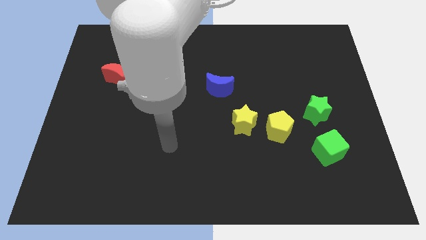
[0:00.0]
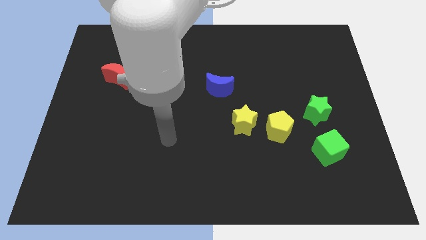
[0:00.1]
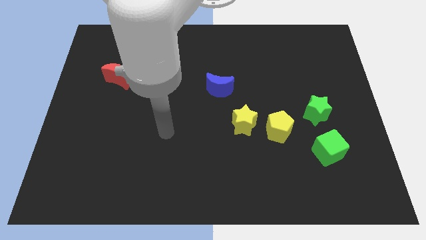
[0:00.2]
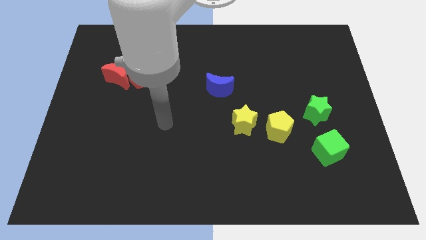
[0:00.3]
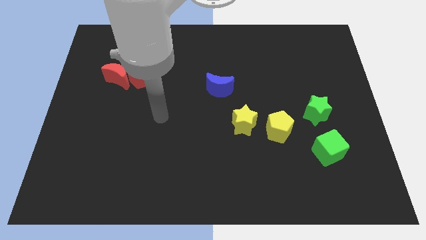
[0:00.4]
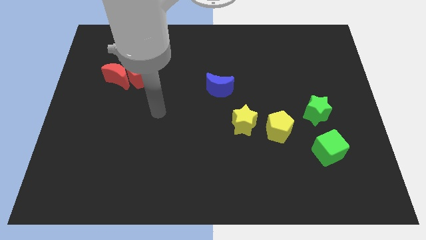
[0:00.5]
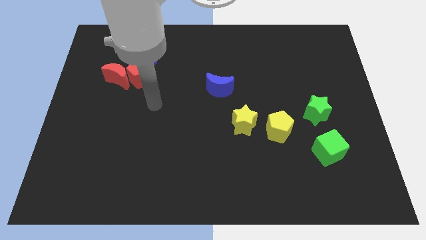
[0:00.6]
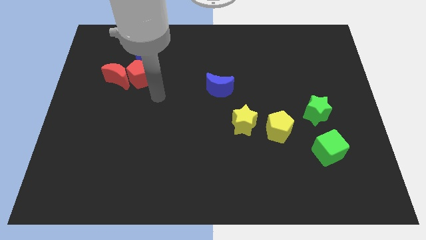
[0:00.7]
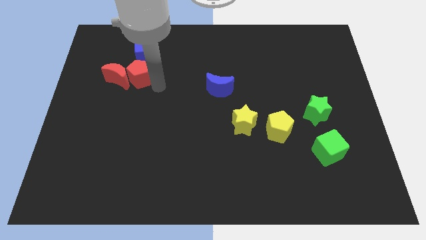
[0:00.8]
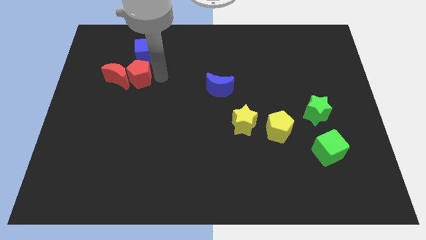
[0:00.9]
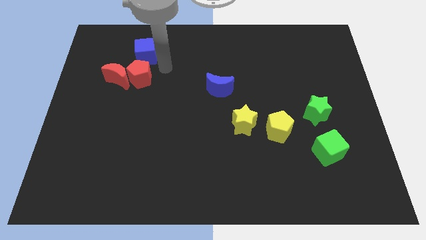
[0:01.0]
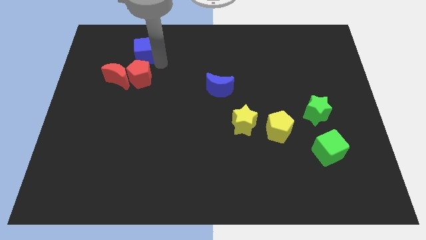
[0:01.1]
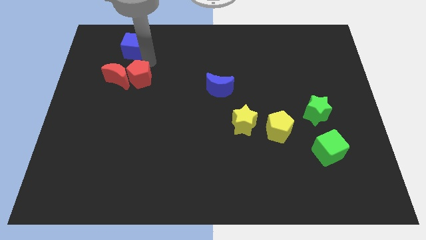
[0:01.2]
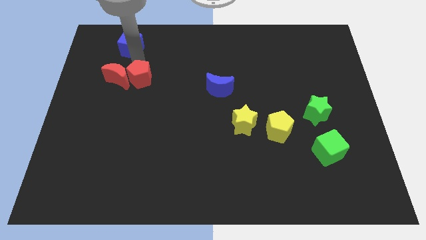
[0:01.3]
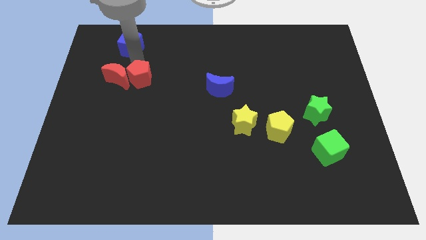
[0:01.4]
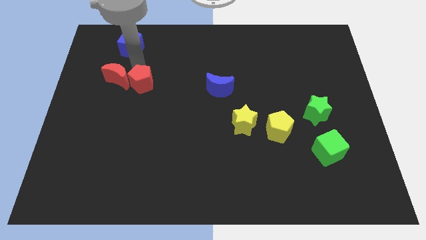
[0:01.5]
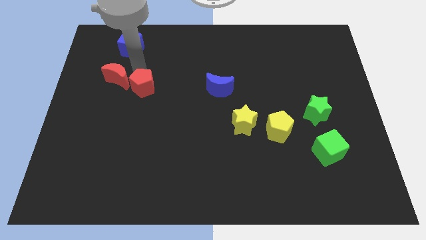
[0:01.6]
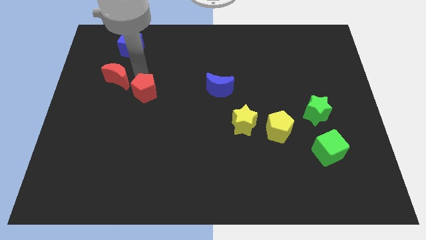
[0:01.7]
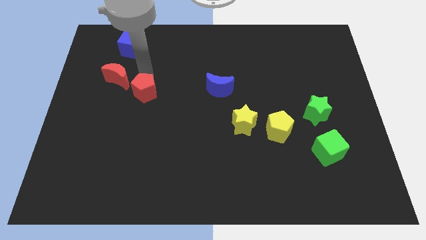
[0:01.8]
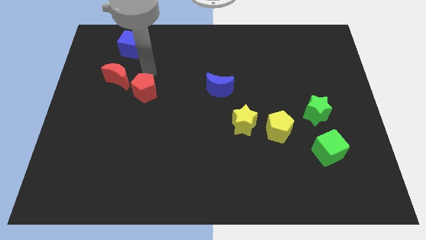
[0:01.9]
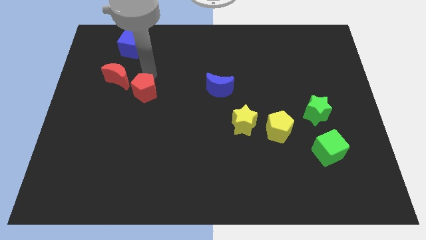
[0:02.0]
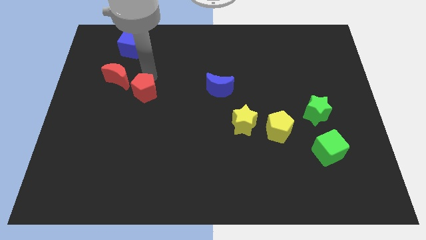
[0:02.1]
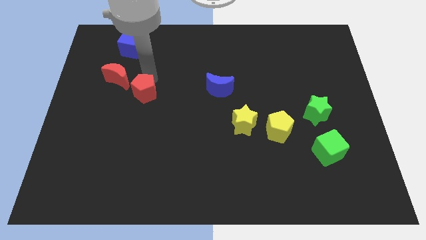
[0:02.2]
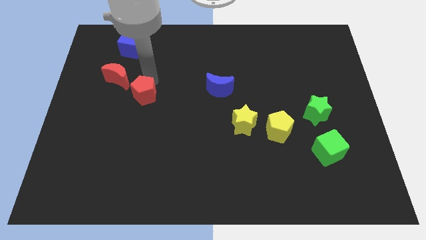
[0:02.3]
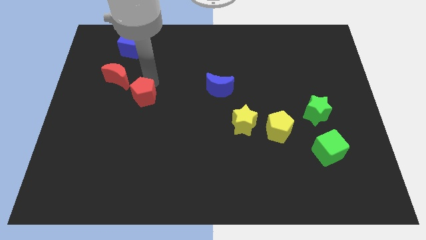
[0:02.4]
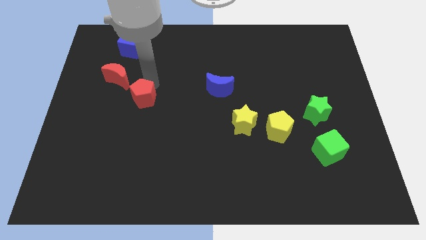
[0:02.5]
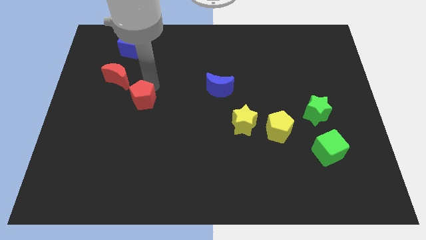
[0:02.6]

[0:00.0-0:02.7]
move the red pentagon slightly downwards

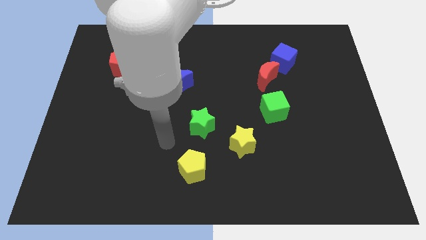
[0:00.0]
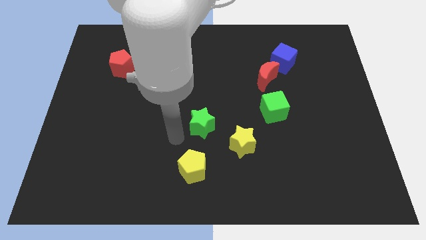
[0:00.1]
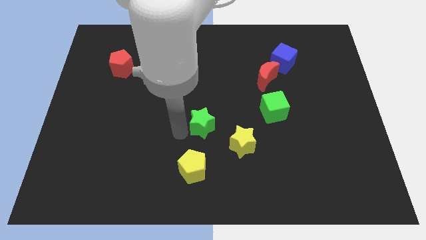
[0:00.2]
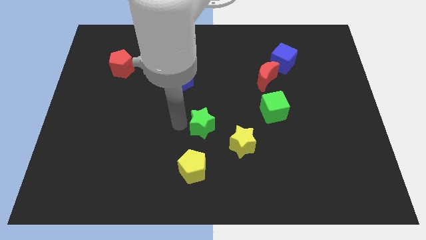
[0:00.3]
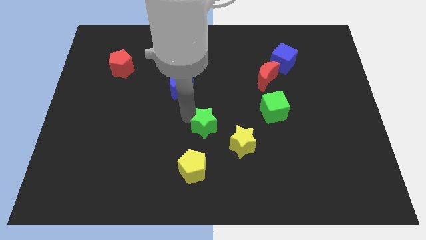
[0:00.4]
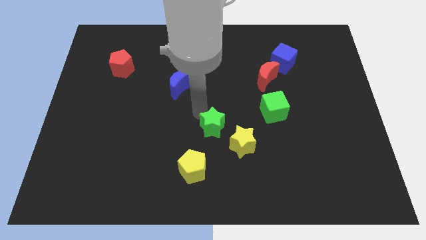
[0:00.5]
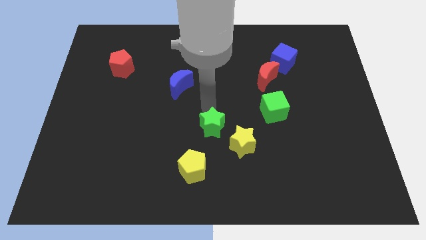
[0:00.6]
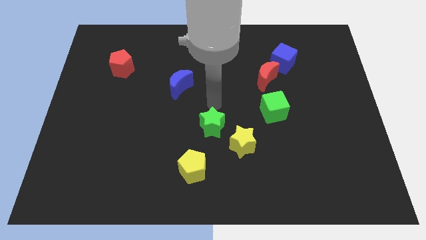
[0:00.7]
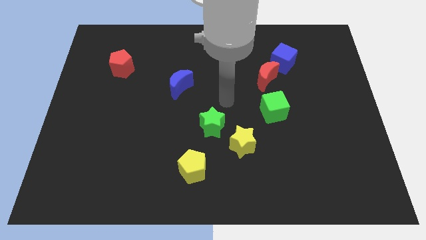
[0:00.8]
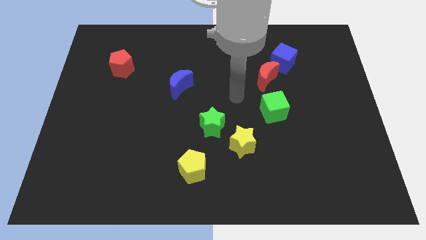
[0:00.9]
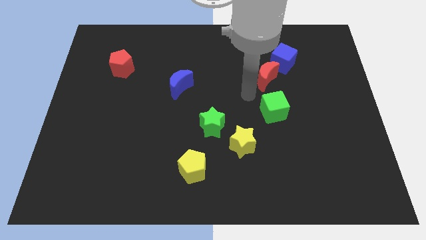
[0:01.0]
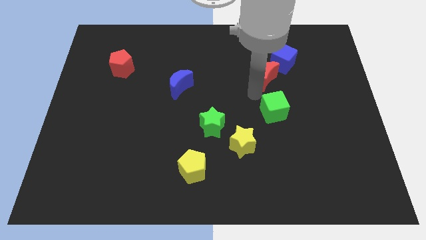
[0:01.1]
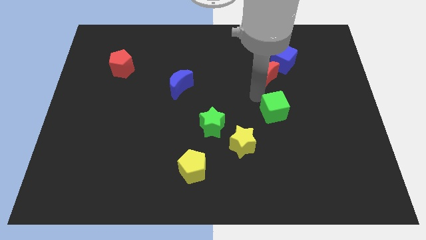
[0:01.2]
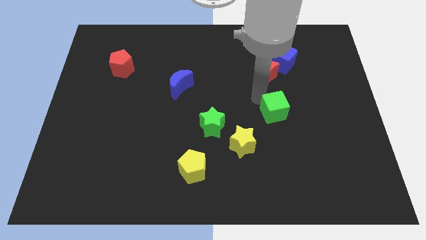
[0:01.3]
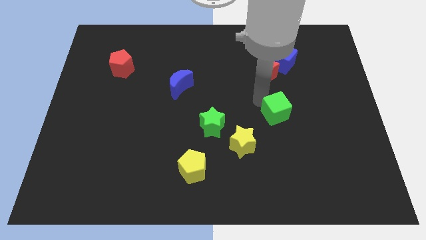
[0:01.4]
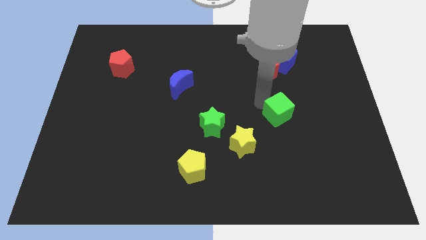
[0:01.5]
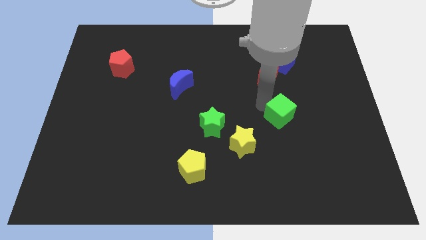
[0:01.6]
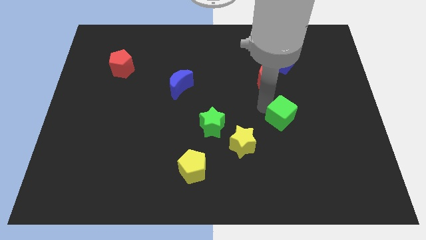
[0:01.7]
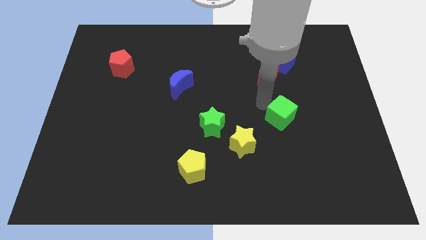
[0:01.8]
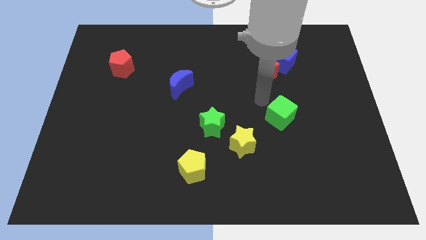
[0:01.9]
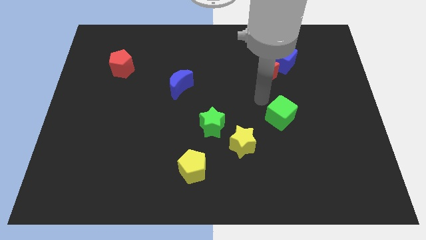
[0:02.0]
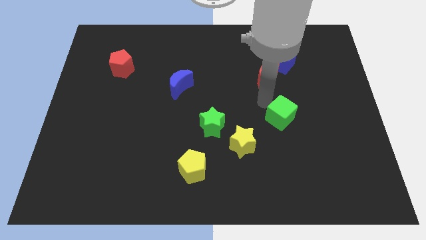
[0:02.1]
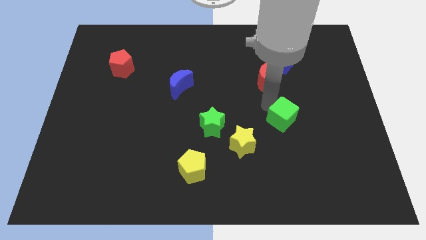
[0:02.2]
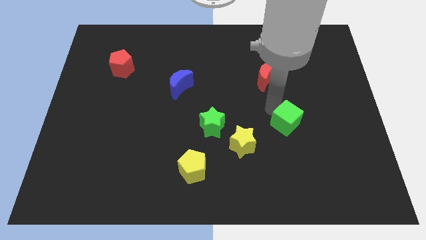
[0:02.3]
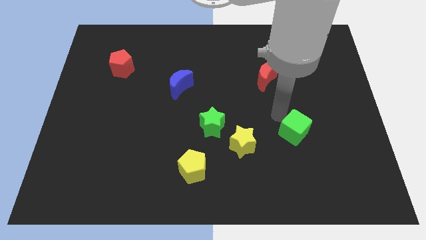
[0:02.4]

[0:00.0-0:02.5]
slightly slide the green cube diagonally down and to the right

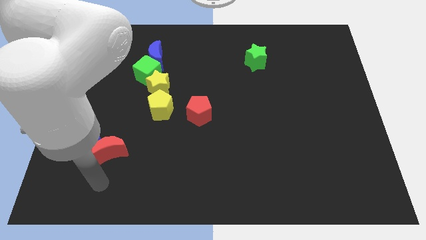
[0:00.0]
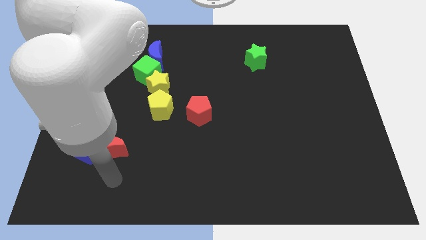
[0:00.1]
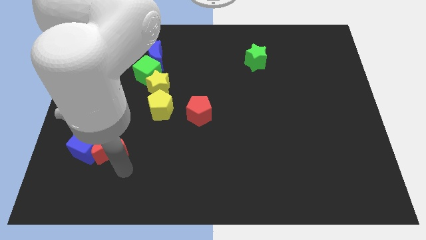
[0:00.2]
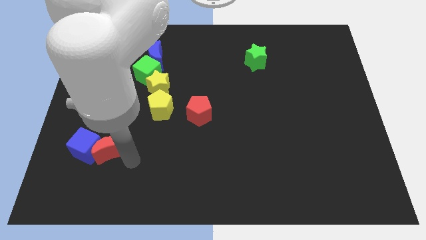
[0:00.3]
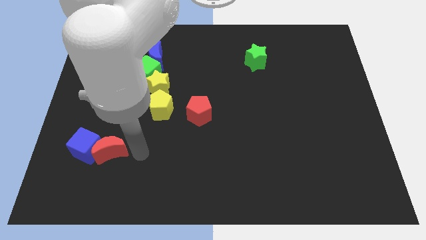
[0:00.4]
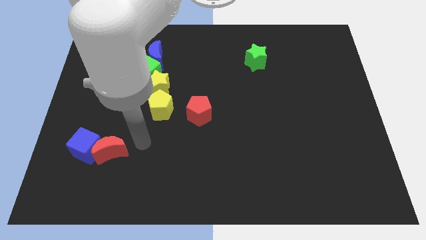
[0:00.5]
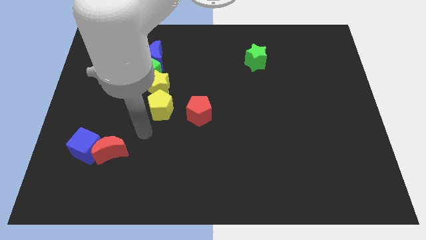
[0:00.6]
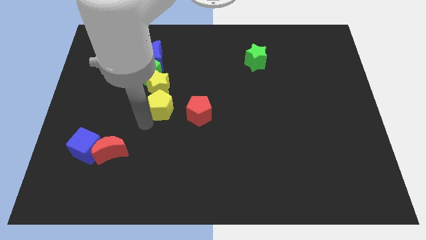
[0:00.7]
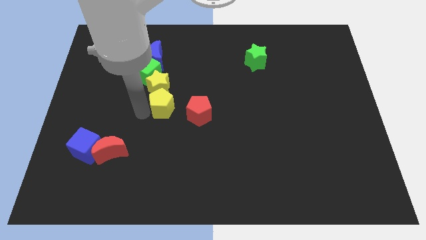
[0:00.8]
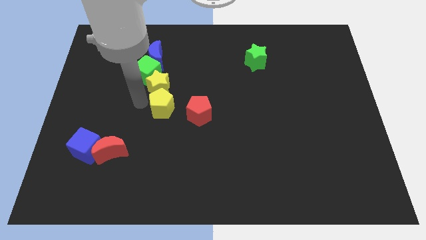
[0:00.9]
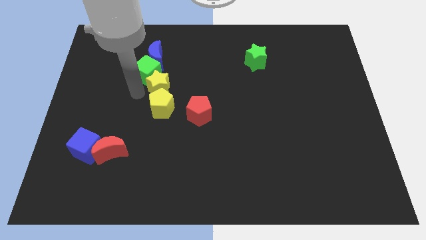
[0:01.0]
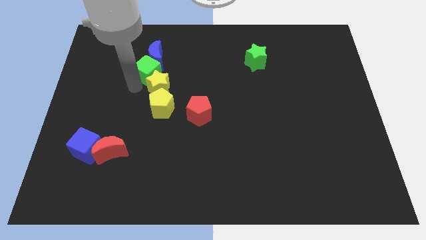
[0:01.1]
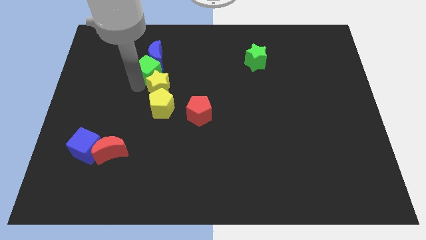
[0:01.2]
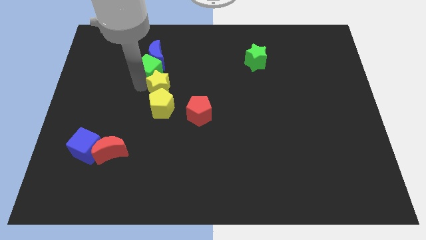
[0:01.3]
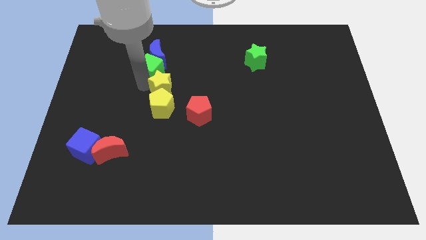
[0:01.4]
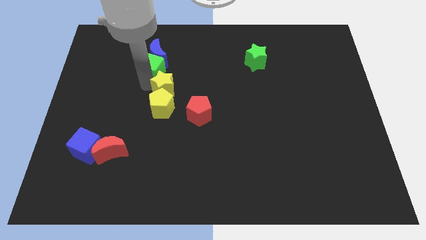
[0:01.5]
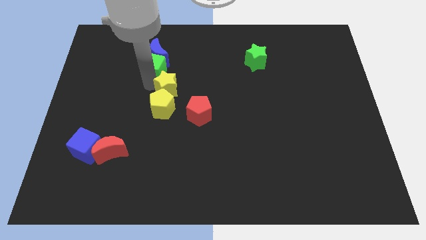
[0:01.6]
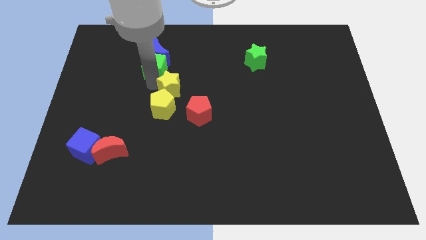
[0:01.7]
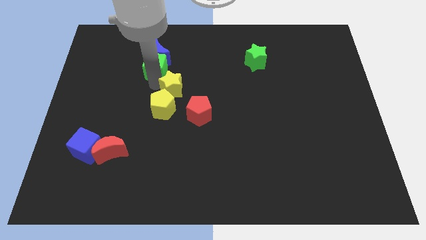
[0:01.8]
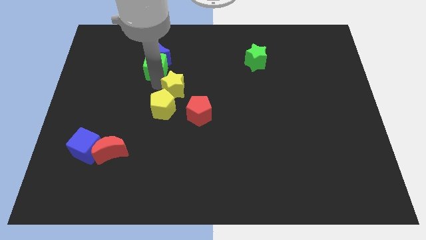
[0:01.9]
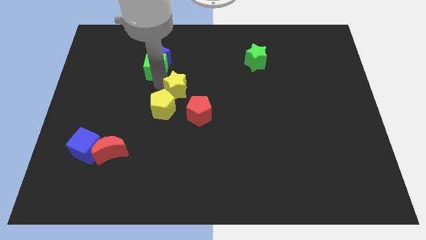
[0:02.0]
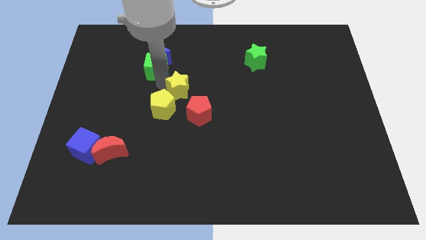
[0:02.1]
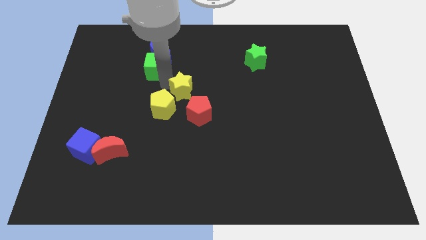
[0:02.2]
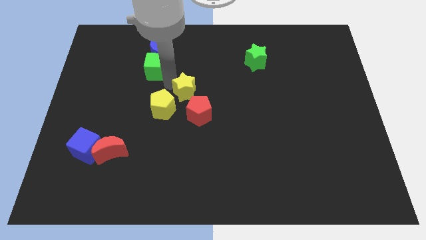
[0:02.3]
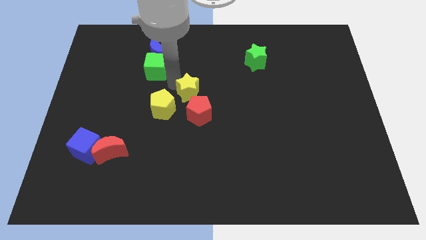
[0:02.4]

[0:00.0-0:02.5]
slightly move the yellow star right

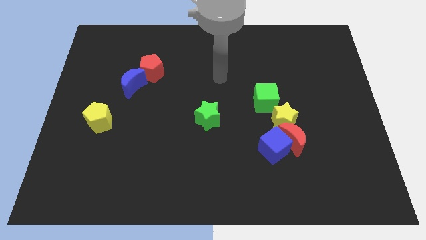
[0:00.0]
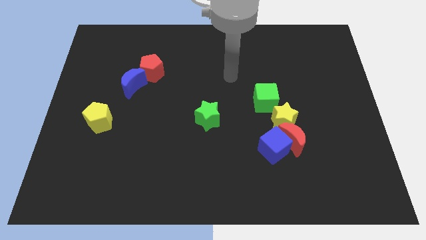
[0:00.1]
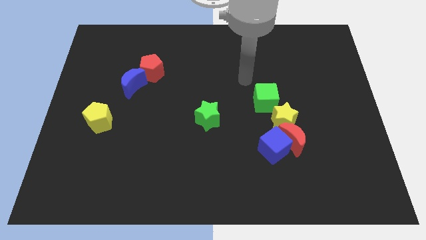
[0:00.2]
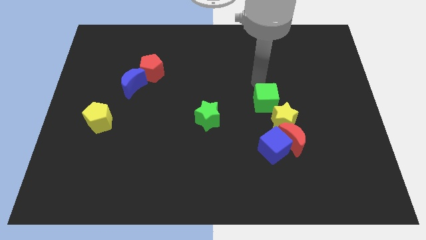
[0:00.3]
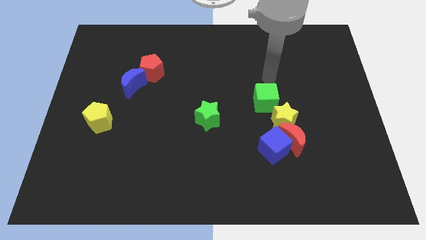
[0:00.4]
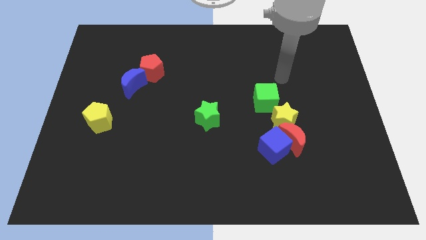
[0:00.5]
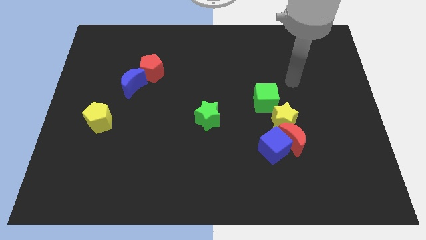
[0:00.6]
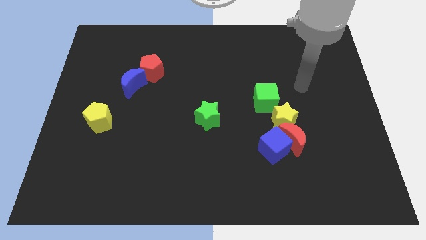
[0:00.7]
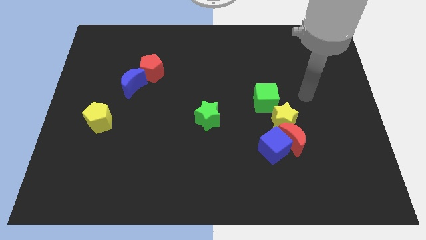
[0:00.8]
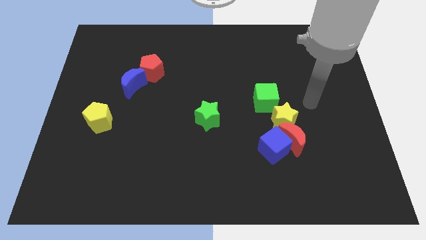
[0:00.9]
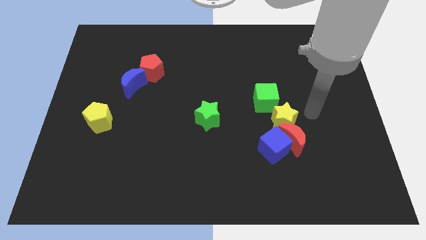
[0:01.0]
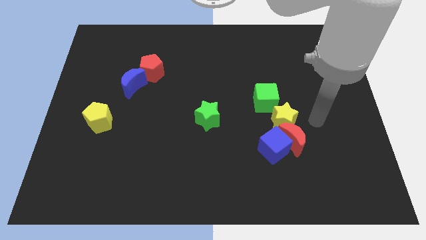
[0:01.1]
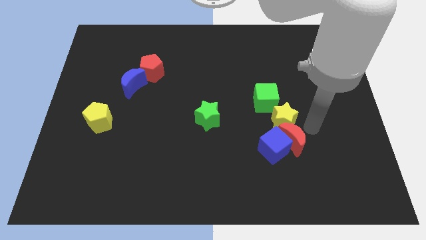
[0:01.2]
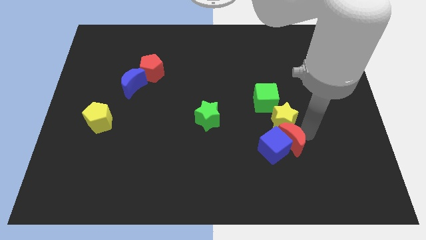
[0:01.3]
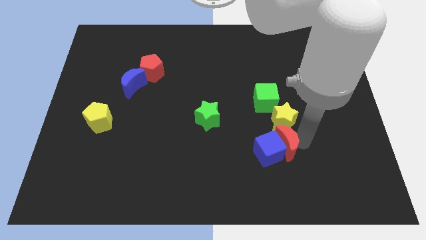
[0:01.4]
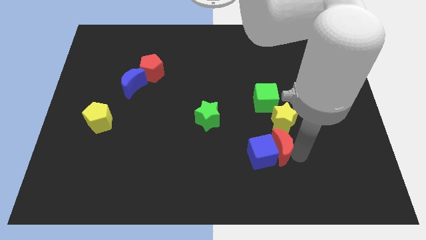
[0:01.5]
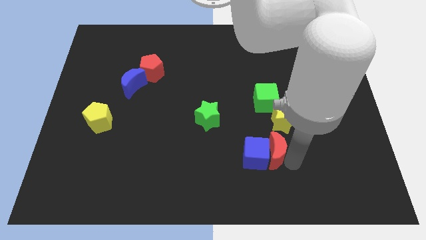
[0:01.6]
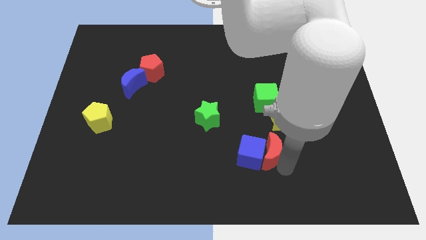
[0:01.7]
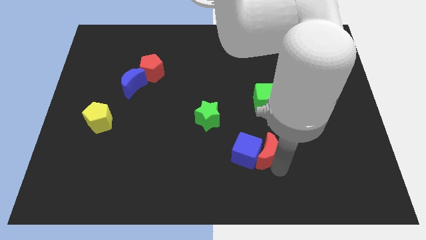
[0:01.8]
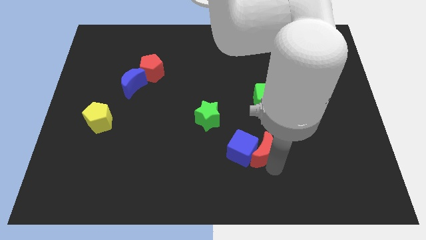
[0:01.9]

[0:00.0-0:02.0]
push the blue cube a little bit to the left
